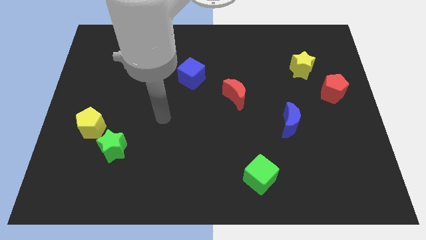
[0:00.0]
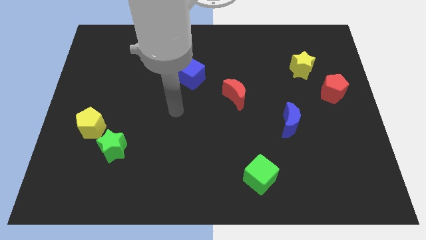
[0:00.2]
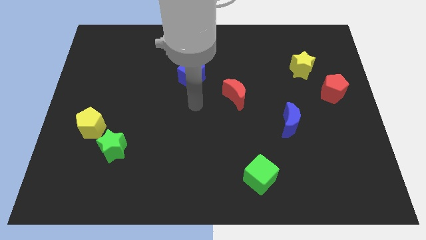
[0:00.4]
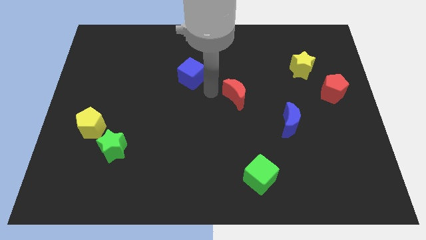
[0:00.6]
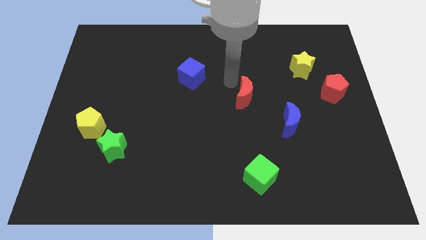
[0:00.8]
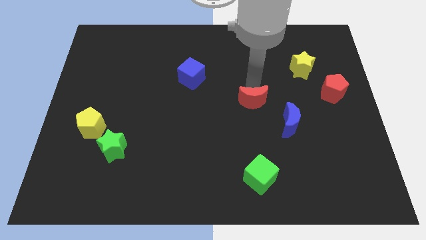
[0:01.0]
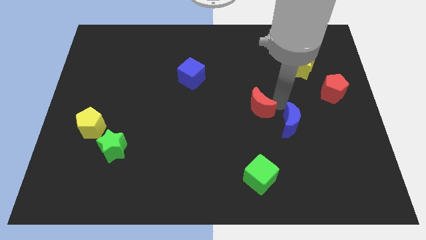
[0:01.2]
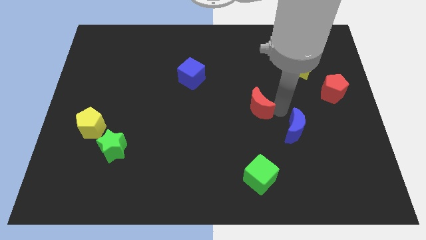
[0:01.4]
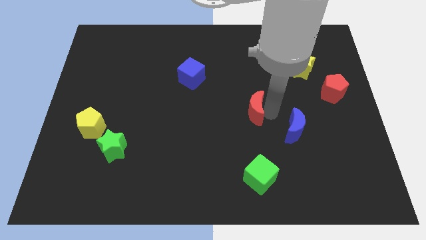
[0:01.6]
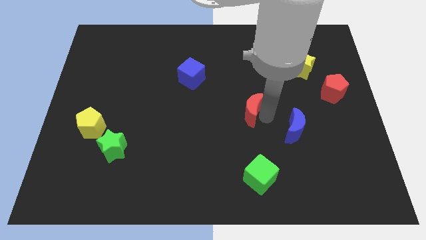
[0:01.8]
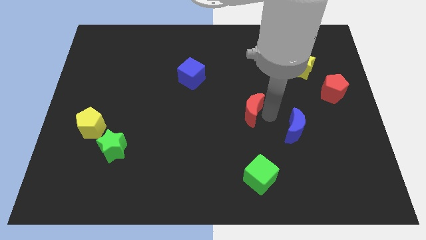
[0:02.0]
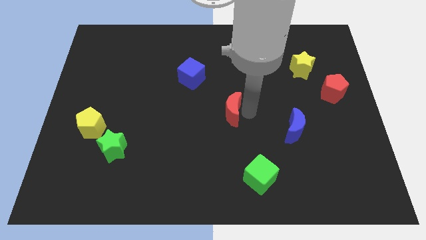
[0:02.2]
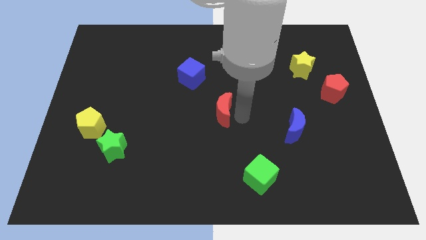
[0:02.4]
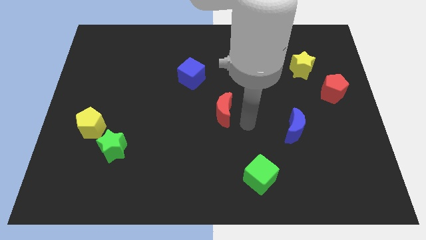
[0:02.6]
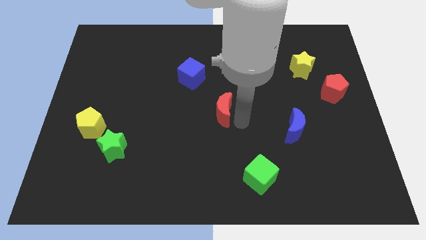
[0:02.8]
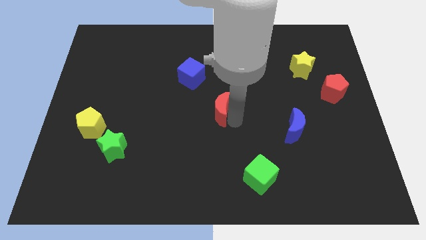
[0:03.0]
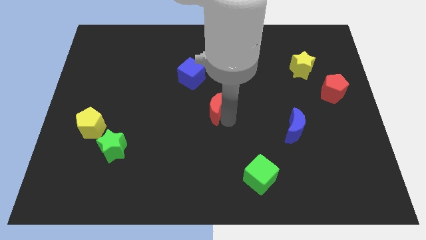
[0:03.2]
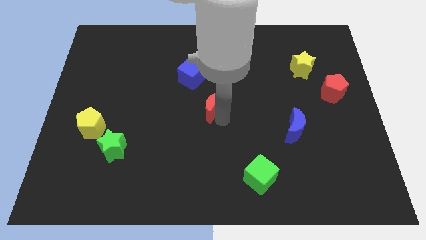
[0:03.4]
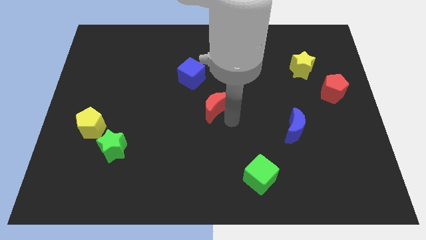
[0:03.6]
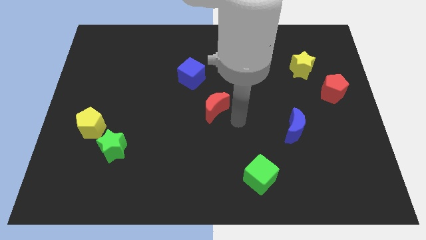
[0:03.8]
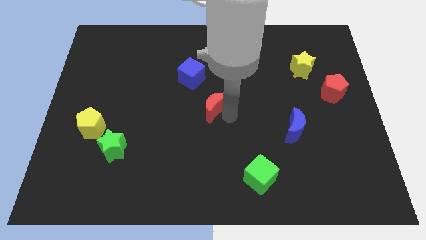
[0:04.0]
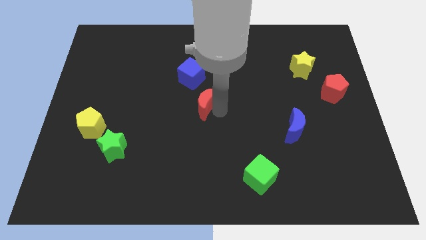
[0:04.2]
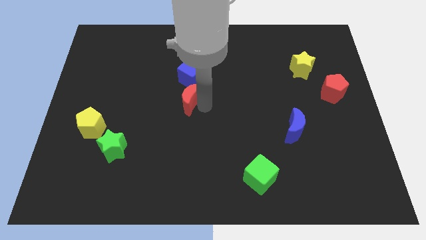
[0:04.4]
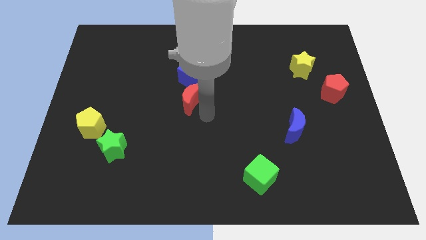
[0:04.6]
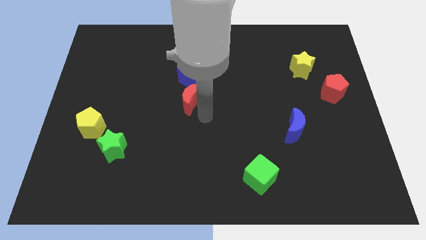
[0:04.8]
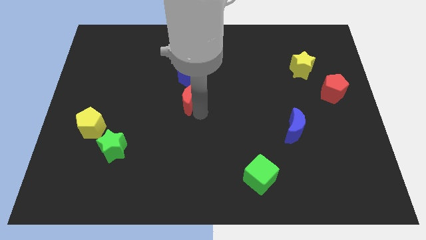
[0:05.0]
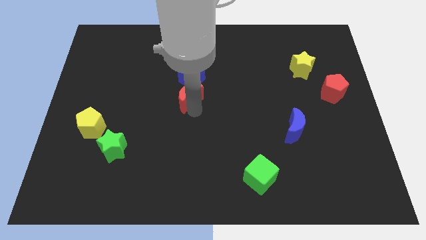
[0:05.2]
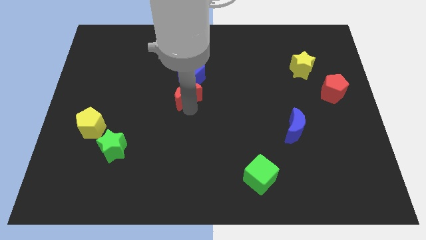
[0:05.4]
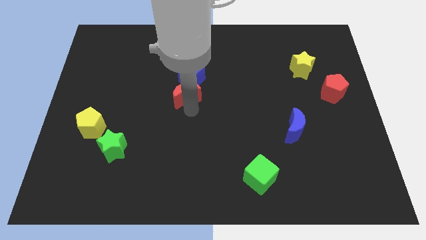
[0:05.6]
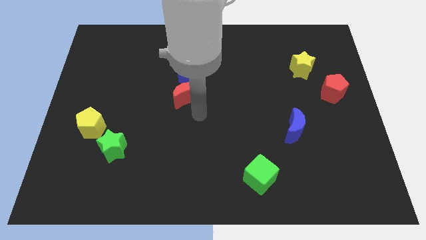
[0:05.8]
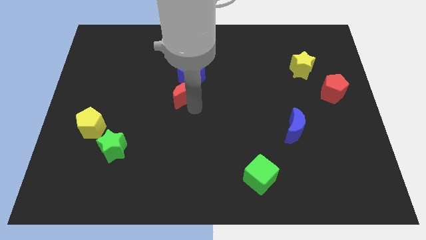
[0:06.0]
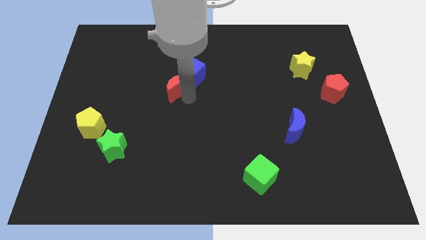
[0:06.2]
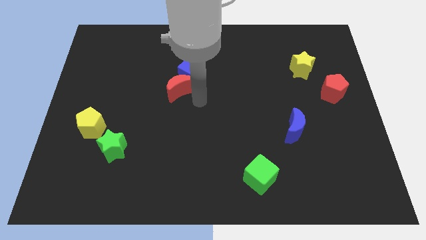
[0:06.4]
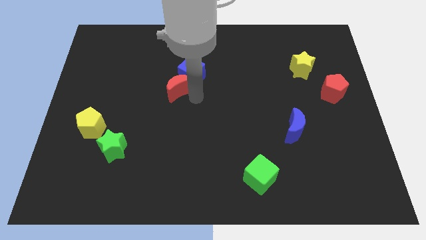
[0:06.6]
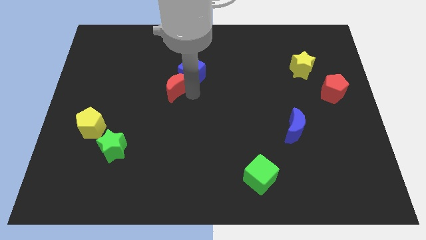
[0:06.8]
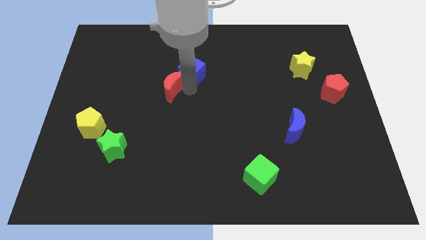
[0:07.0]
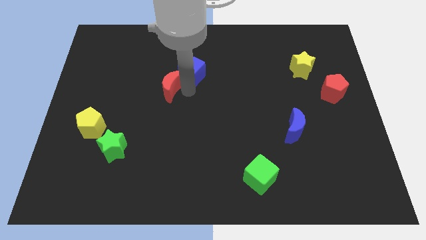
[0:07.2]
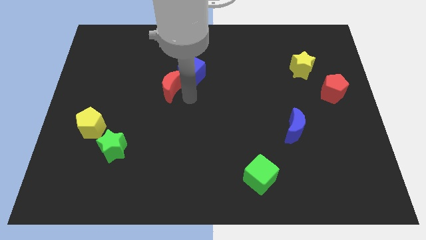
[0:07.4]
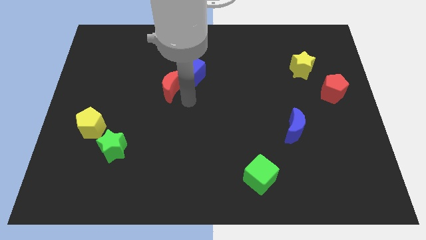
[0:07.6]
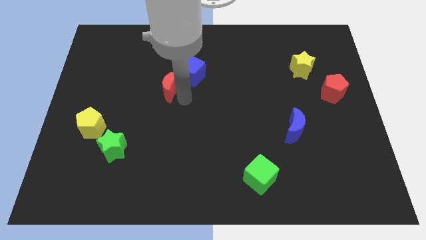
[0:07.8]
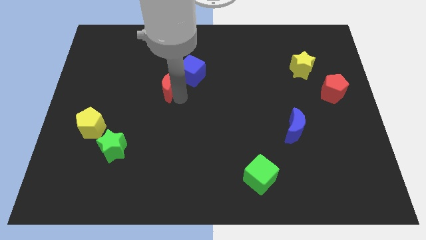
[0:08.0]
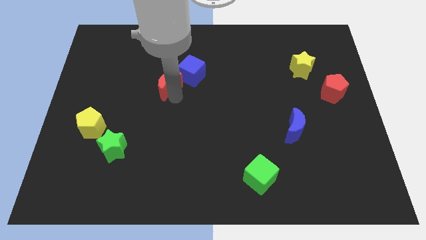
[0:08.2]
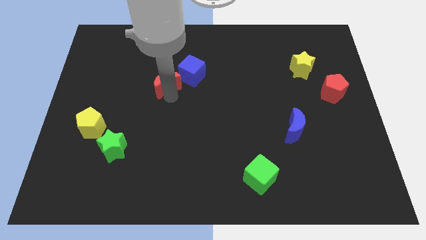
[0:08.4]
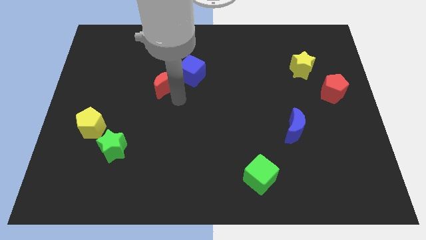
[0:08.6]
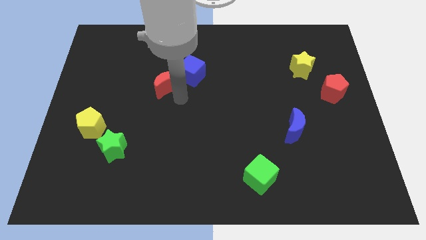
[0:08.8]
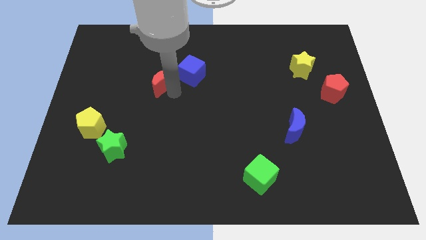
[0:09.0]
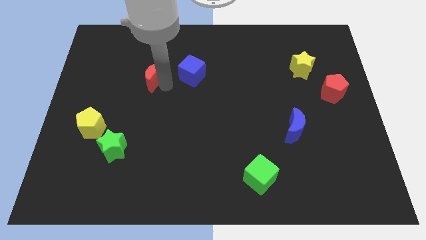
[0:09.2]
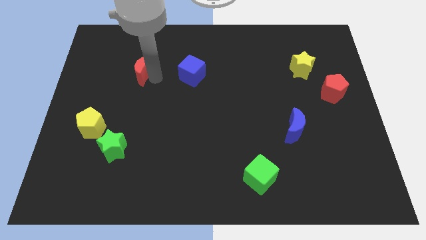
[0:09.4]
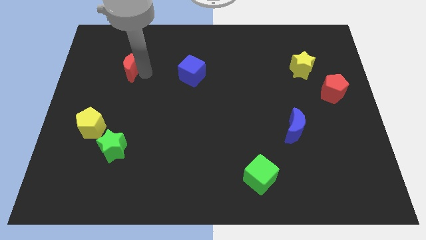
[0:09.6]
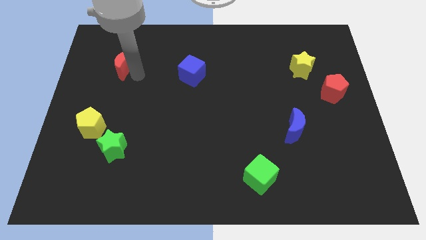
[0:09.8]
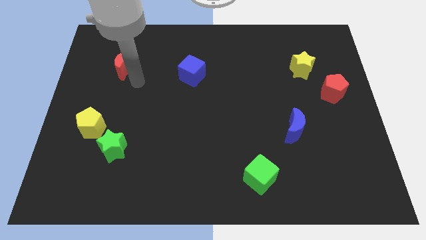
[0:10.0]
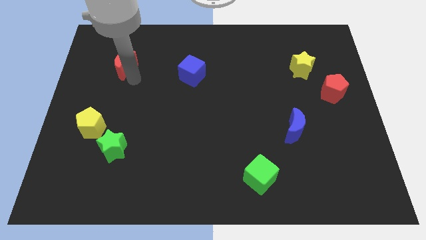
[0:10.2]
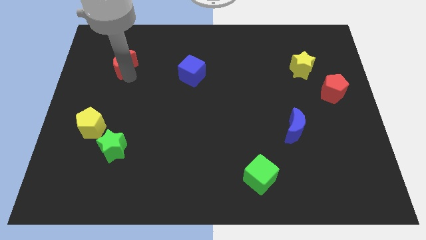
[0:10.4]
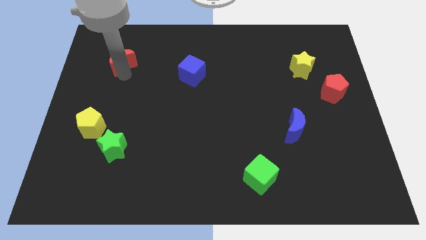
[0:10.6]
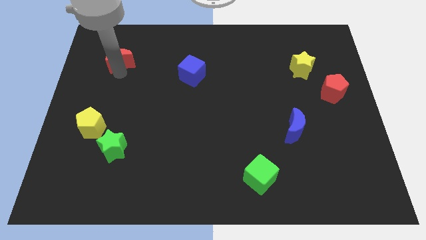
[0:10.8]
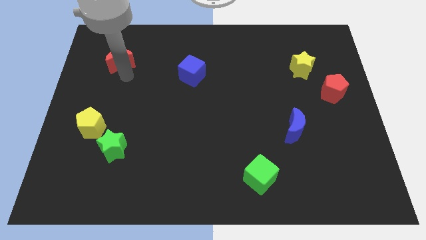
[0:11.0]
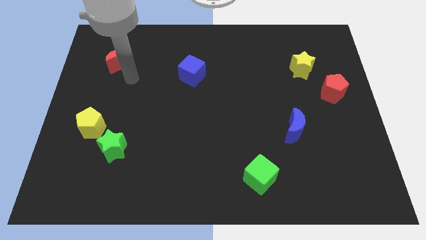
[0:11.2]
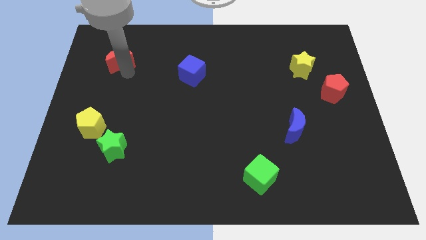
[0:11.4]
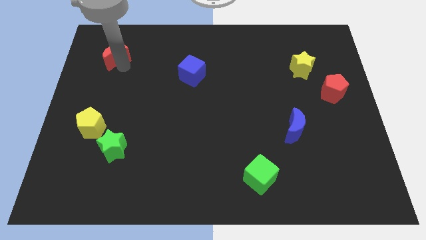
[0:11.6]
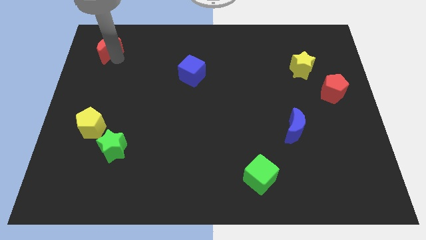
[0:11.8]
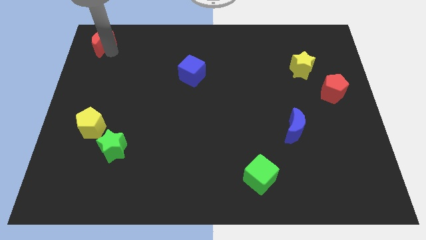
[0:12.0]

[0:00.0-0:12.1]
put the red moon to the top left
